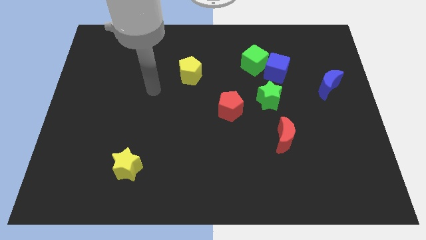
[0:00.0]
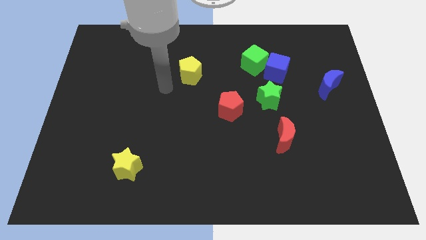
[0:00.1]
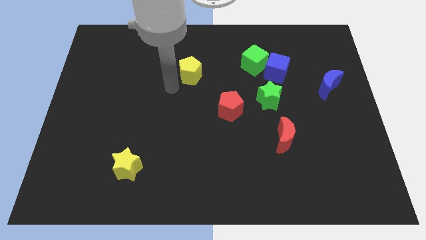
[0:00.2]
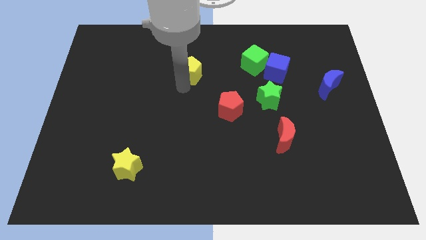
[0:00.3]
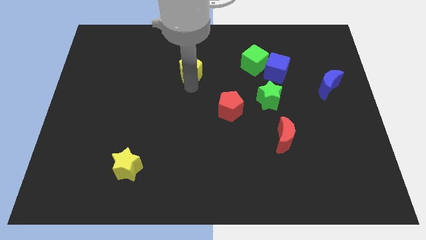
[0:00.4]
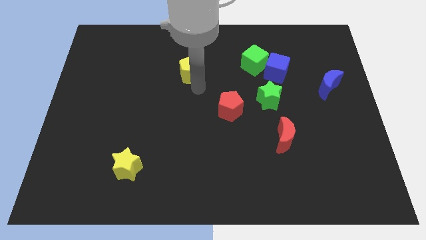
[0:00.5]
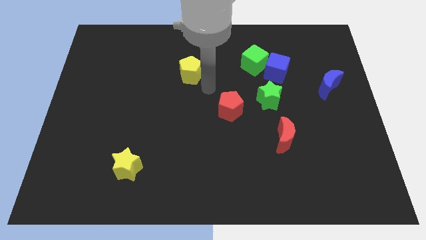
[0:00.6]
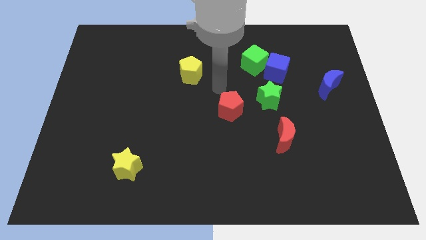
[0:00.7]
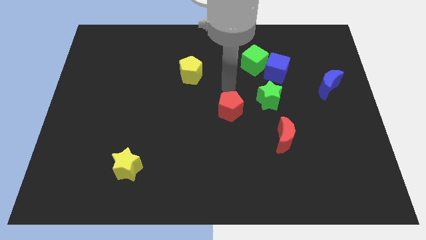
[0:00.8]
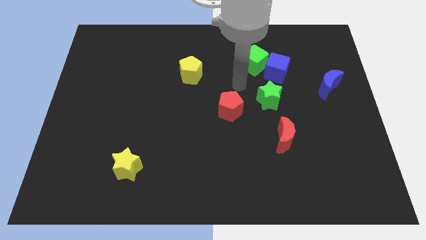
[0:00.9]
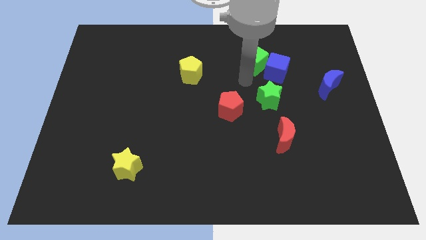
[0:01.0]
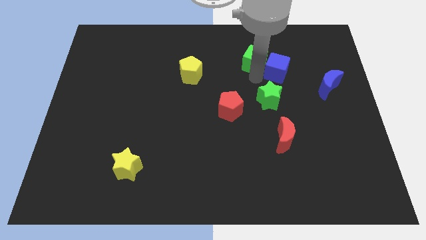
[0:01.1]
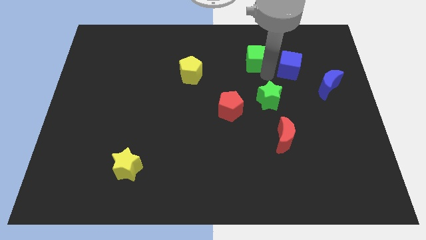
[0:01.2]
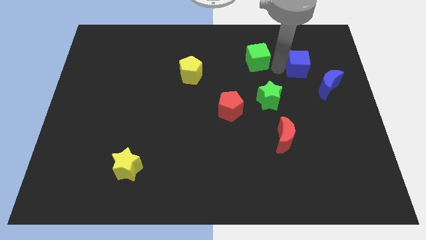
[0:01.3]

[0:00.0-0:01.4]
separate the green cube from the blue cube

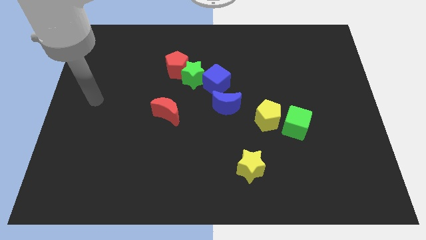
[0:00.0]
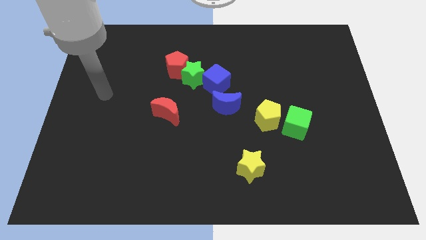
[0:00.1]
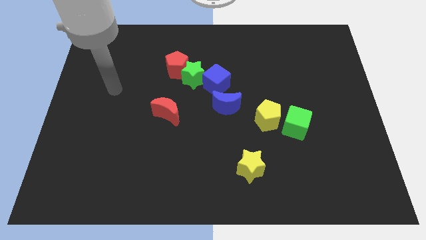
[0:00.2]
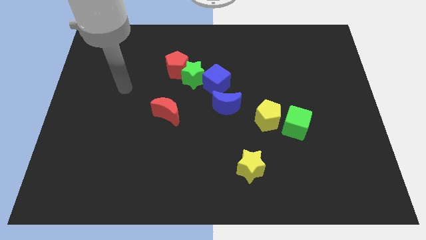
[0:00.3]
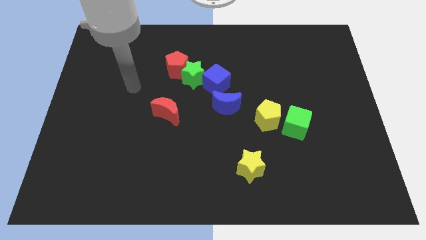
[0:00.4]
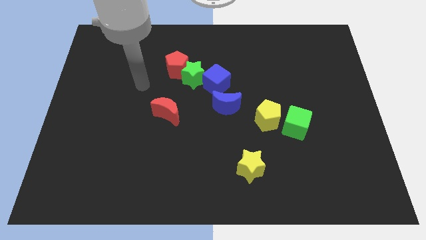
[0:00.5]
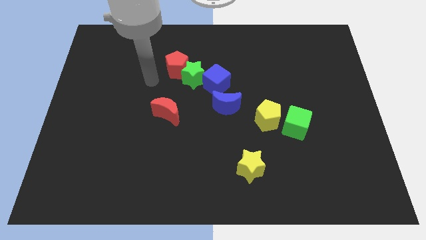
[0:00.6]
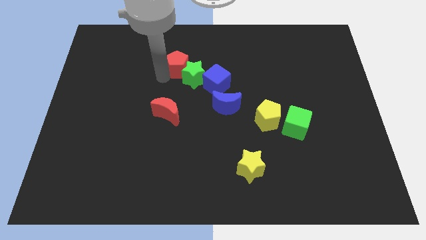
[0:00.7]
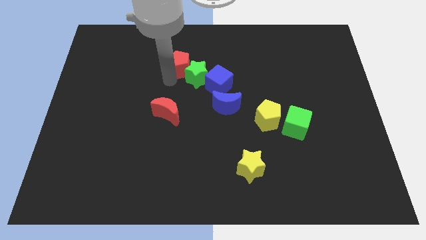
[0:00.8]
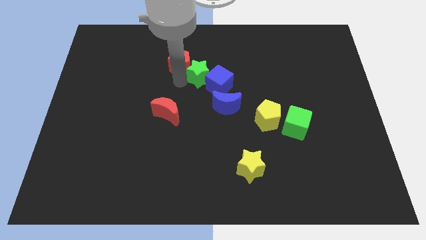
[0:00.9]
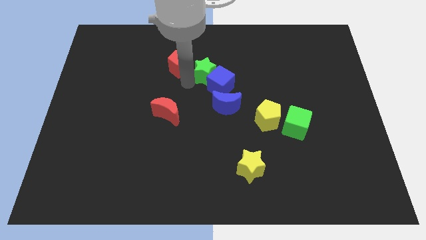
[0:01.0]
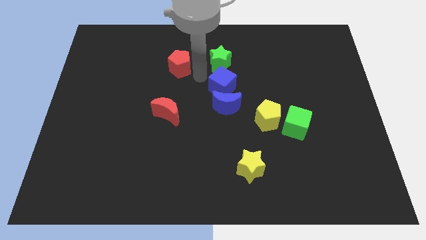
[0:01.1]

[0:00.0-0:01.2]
pull the red pentagon apart from the green star

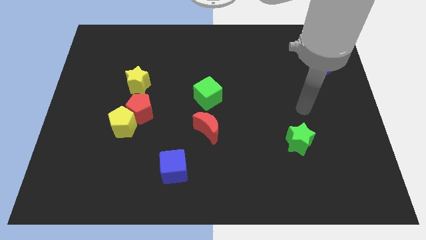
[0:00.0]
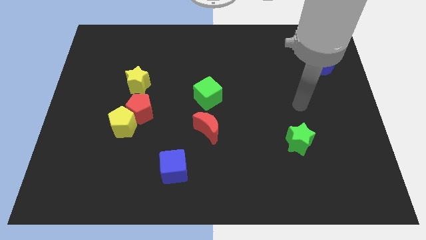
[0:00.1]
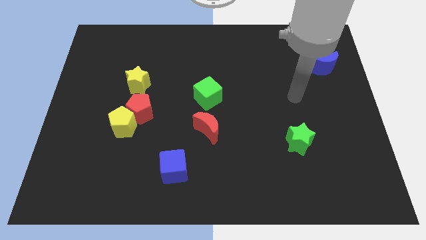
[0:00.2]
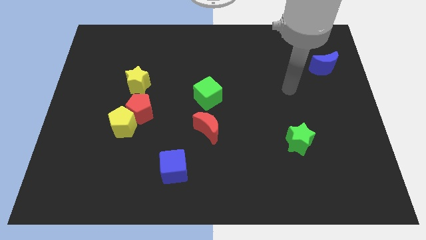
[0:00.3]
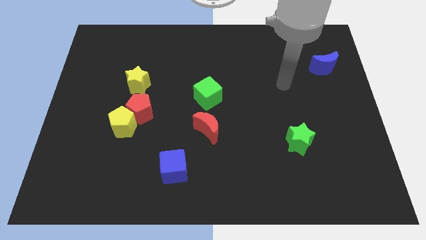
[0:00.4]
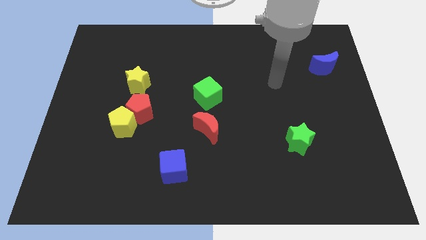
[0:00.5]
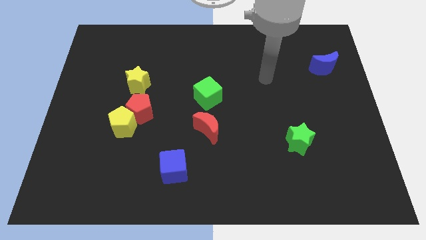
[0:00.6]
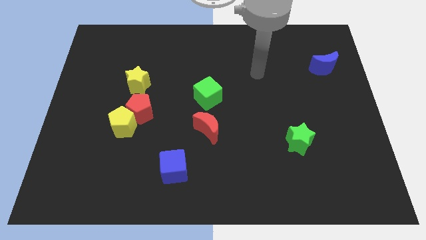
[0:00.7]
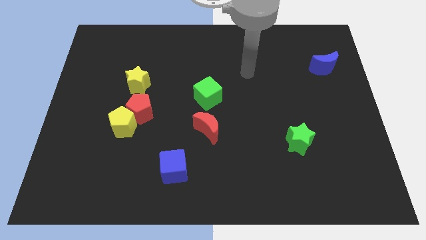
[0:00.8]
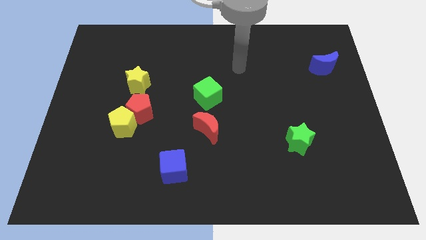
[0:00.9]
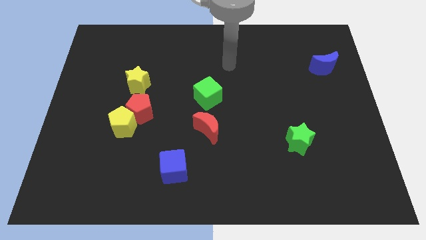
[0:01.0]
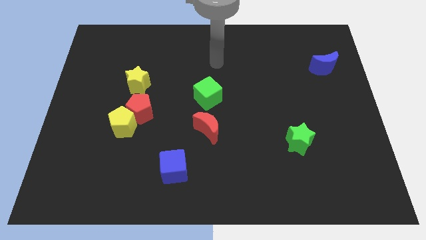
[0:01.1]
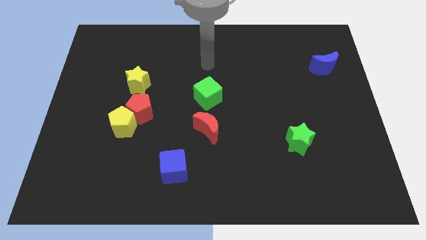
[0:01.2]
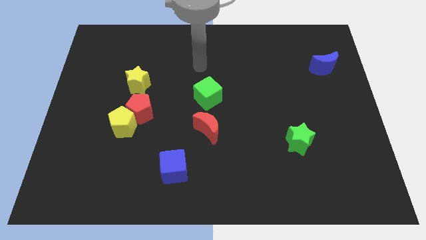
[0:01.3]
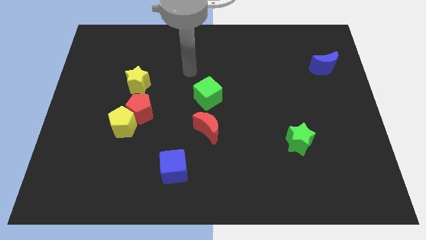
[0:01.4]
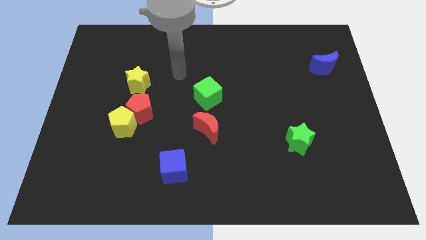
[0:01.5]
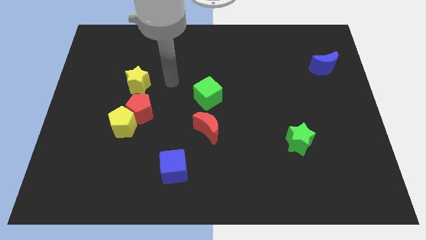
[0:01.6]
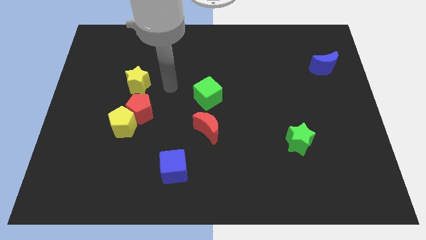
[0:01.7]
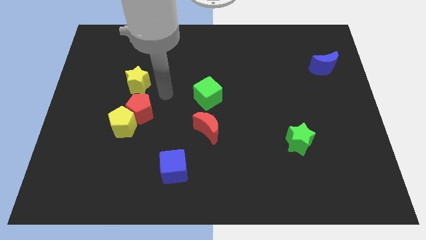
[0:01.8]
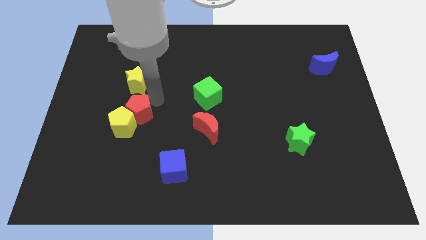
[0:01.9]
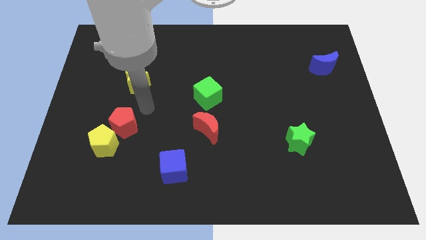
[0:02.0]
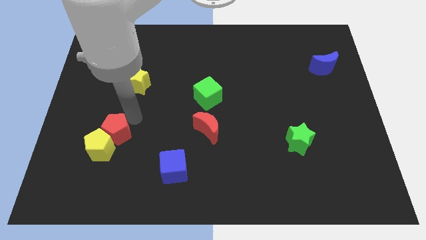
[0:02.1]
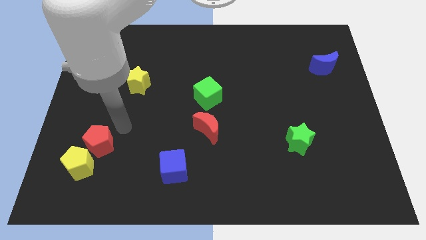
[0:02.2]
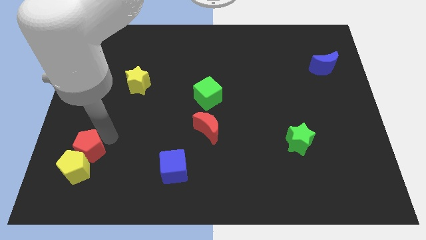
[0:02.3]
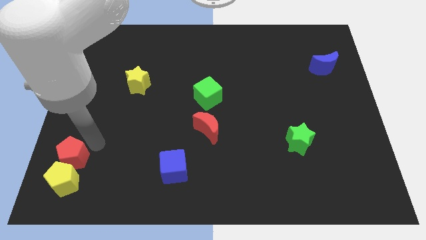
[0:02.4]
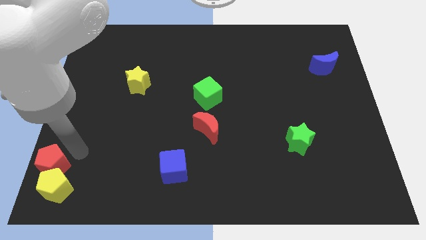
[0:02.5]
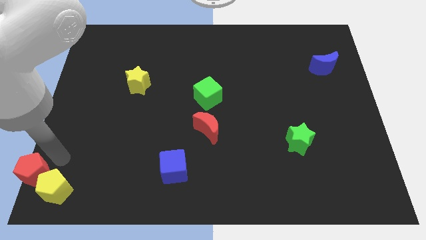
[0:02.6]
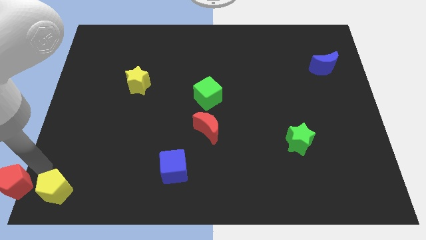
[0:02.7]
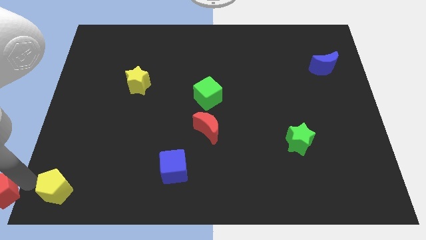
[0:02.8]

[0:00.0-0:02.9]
separate the yellow pentagon from the red pentagon

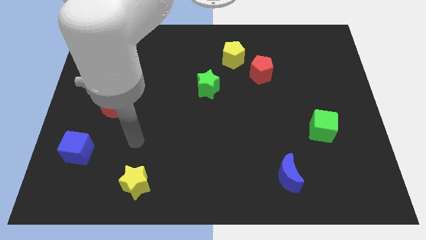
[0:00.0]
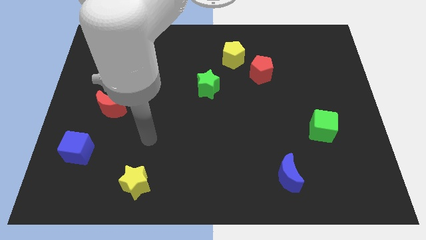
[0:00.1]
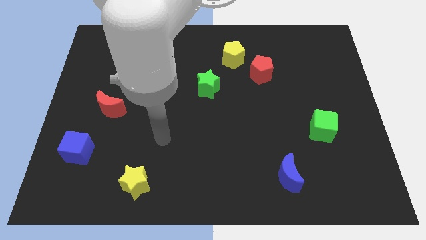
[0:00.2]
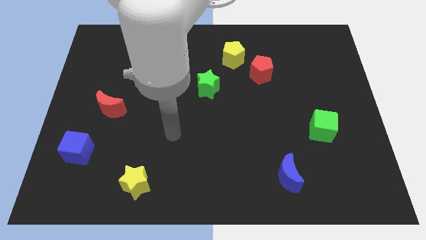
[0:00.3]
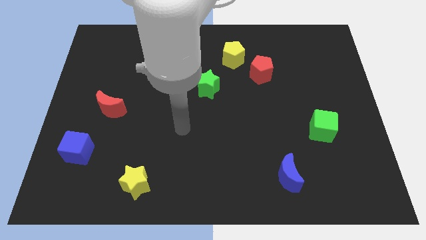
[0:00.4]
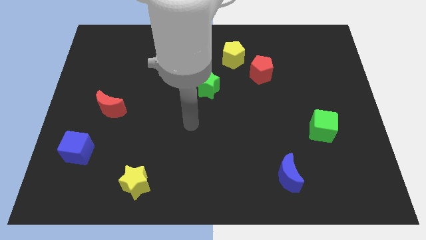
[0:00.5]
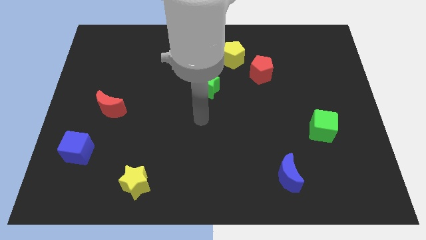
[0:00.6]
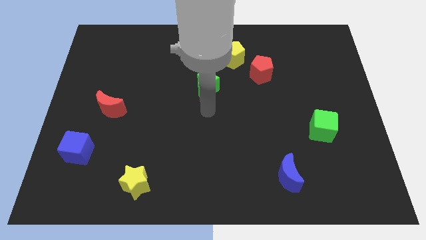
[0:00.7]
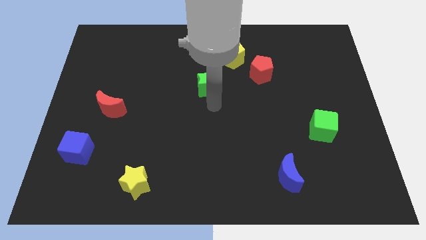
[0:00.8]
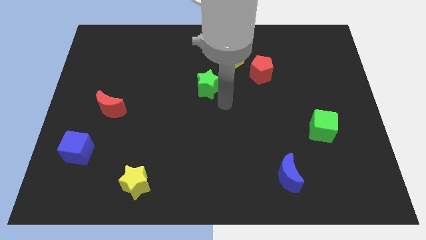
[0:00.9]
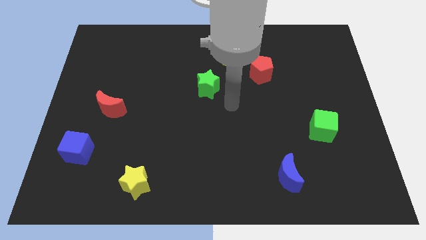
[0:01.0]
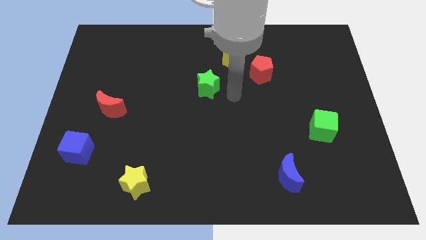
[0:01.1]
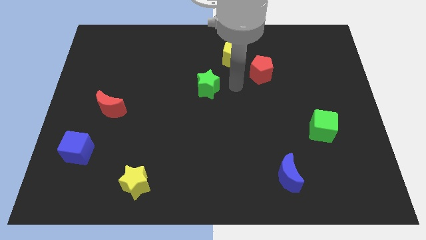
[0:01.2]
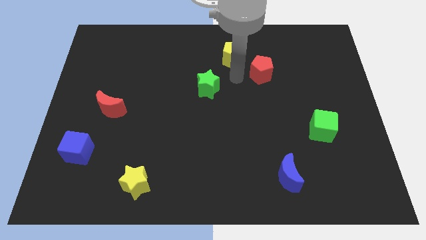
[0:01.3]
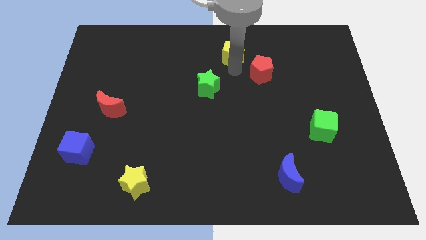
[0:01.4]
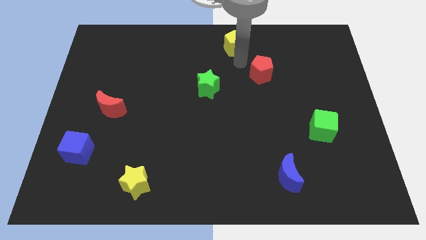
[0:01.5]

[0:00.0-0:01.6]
separate the red pentagon from the yellow pentagon

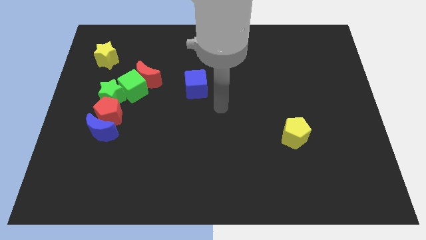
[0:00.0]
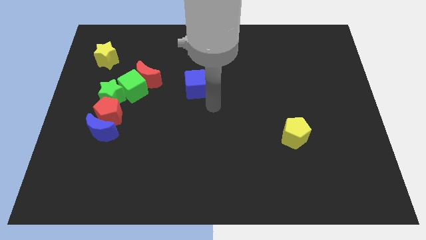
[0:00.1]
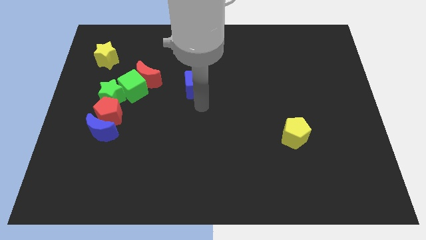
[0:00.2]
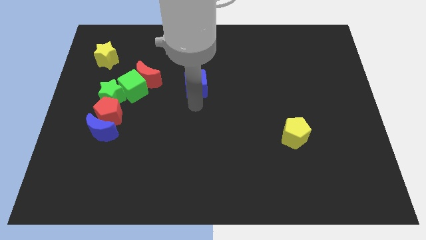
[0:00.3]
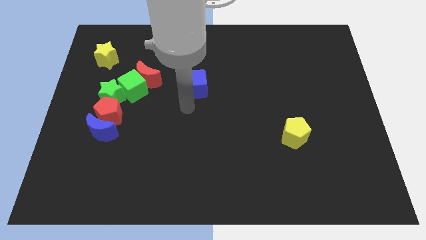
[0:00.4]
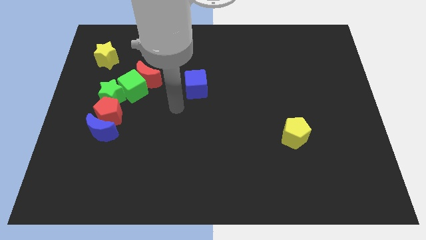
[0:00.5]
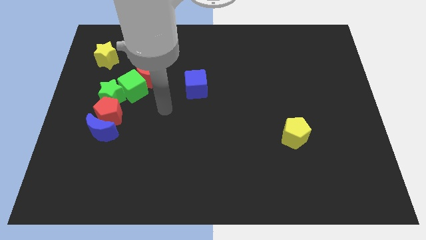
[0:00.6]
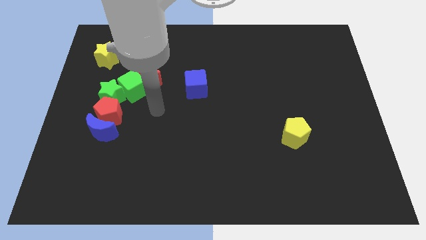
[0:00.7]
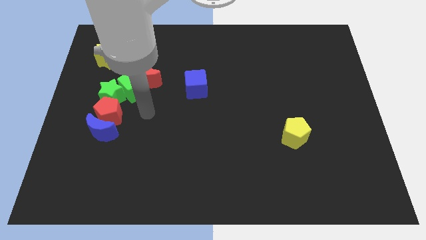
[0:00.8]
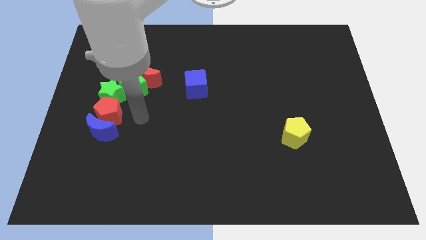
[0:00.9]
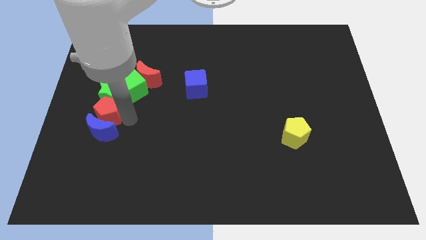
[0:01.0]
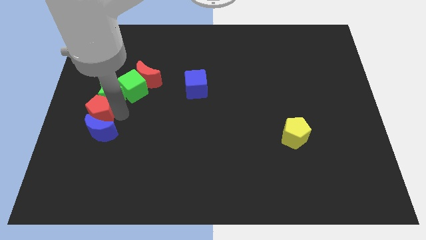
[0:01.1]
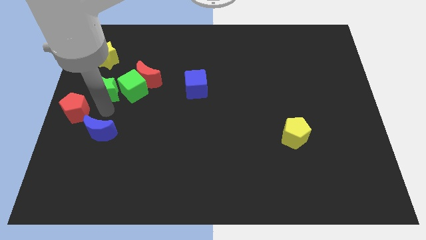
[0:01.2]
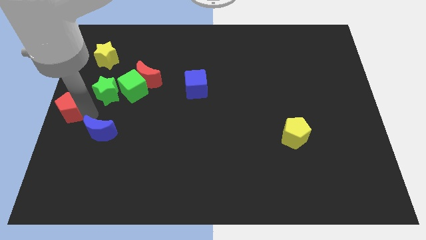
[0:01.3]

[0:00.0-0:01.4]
move the blue moon away from the red pentagon

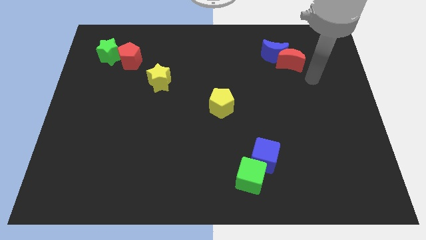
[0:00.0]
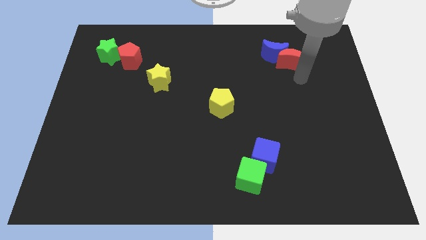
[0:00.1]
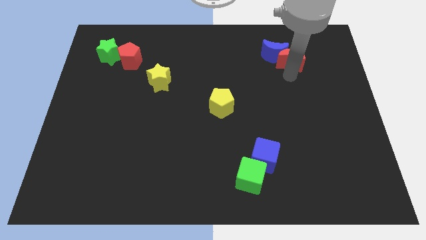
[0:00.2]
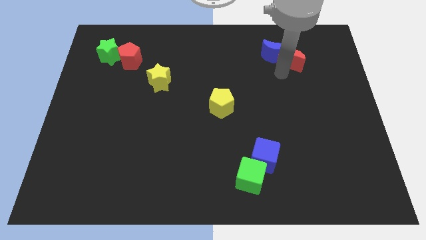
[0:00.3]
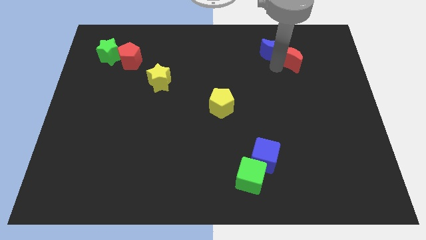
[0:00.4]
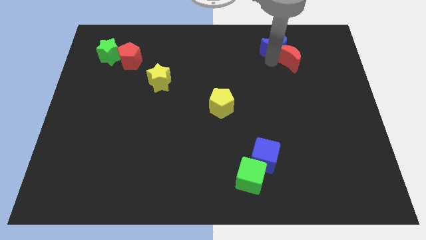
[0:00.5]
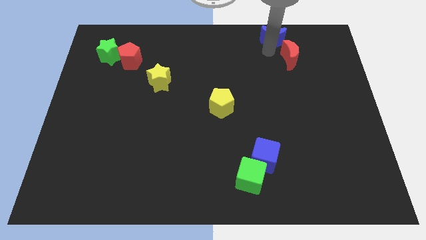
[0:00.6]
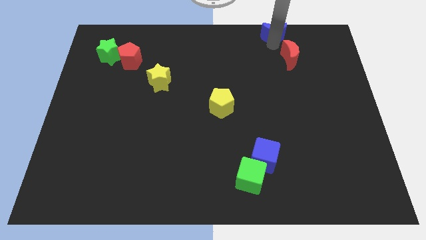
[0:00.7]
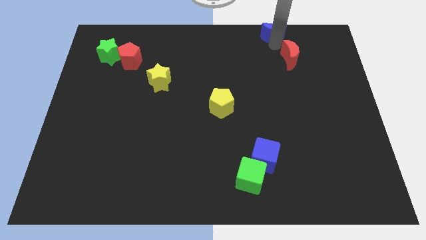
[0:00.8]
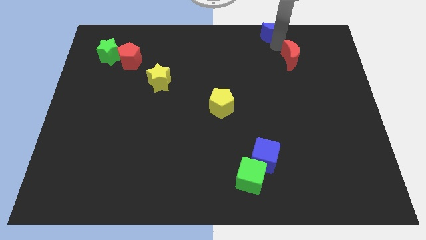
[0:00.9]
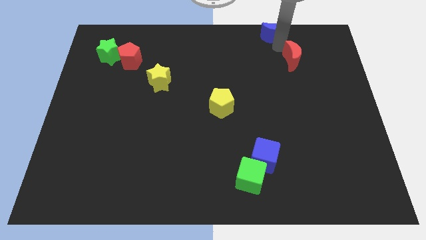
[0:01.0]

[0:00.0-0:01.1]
pull the red moon apart from the blue moon
